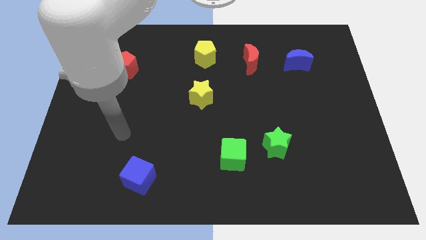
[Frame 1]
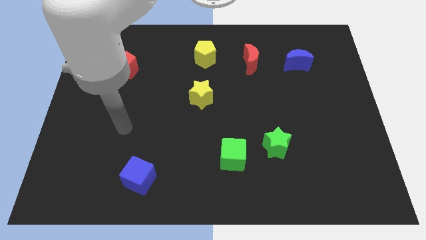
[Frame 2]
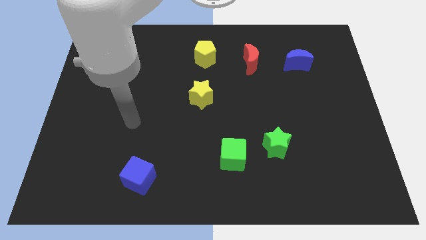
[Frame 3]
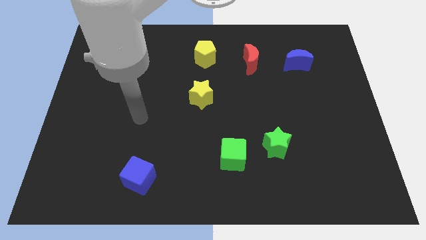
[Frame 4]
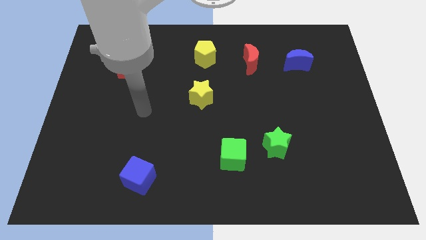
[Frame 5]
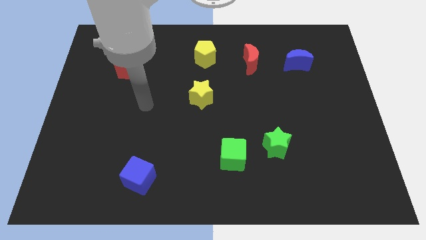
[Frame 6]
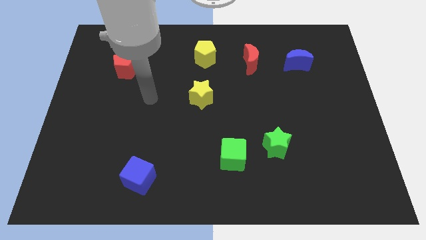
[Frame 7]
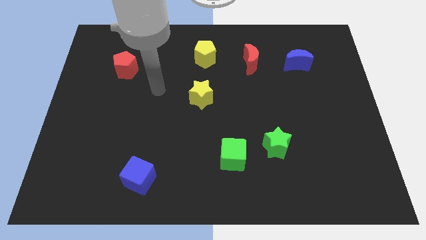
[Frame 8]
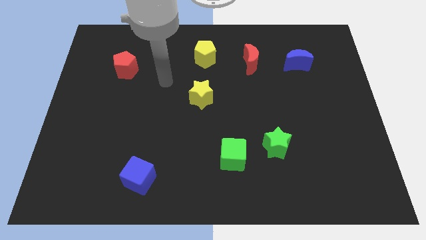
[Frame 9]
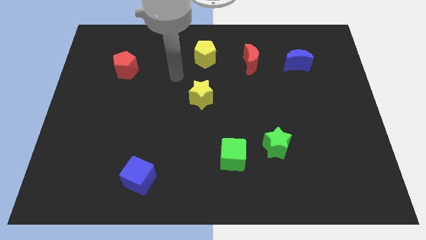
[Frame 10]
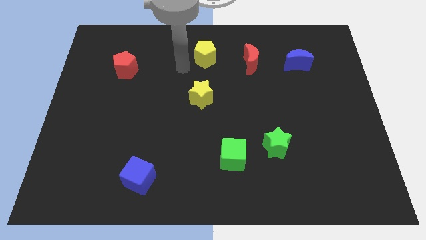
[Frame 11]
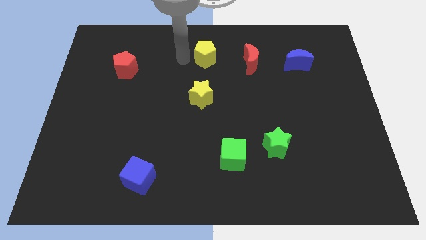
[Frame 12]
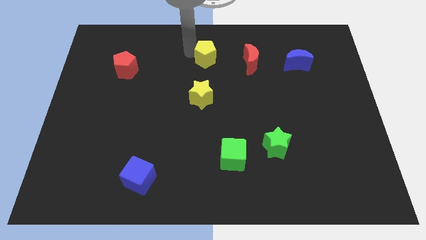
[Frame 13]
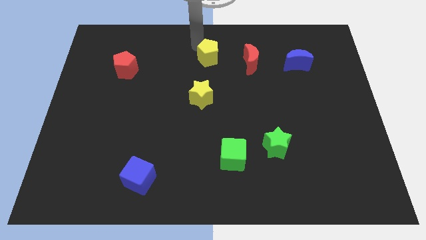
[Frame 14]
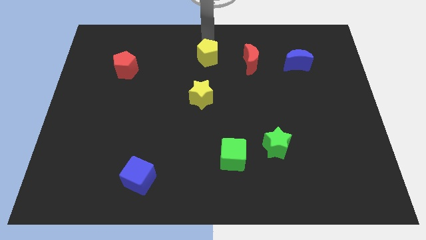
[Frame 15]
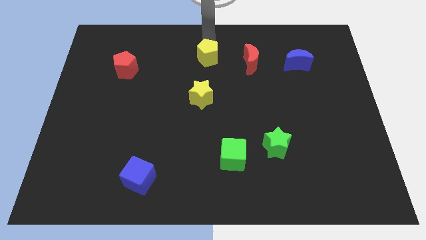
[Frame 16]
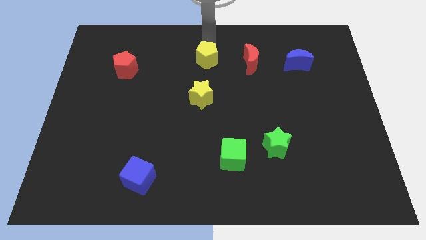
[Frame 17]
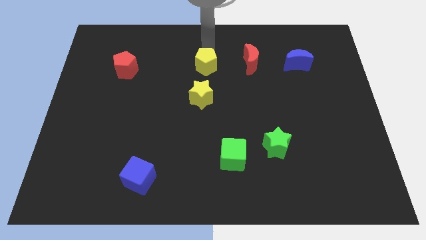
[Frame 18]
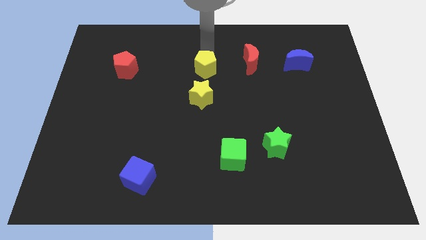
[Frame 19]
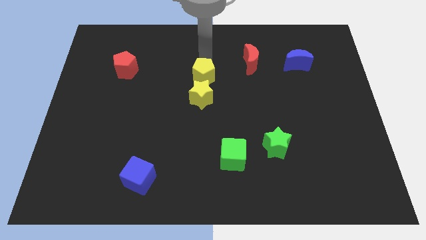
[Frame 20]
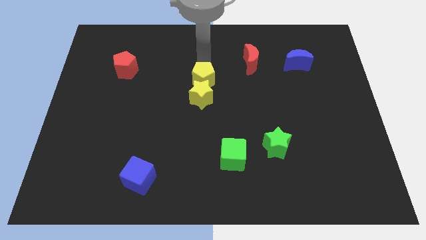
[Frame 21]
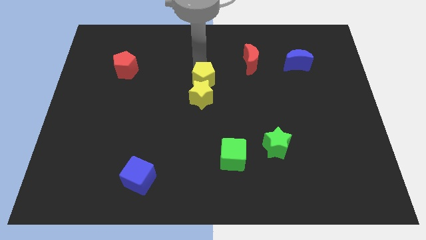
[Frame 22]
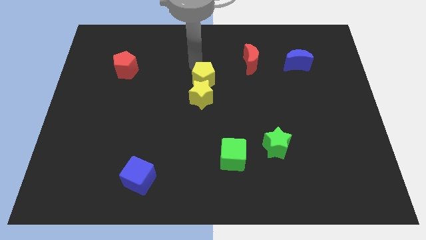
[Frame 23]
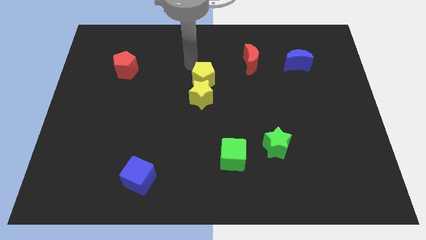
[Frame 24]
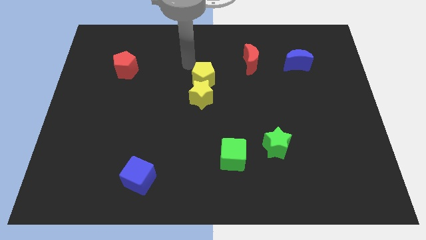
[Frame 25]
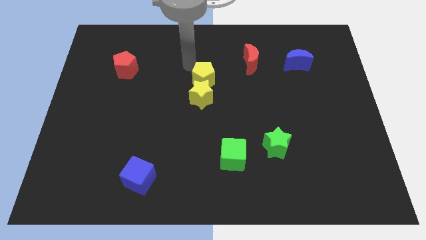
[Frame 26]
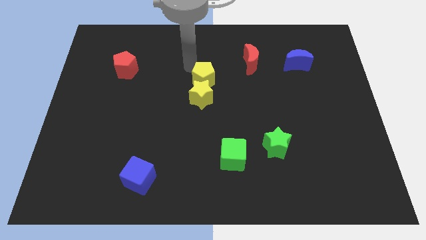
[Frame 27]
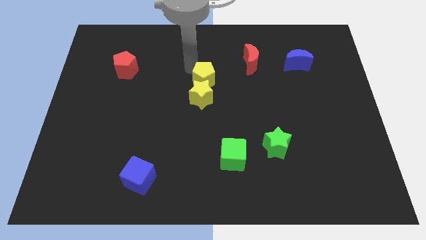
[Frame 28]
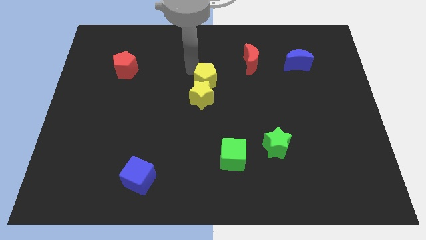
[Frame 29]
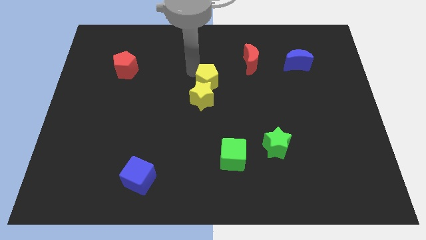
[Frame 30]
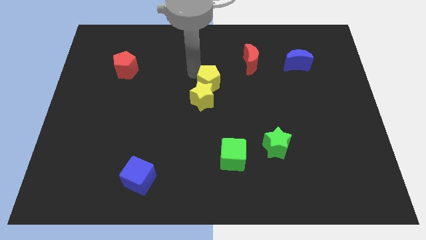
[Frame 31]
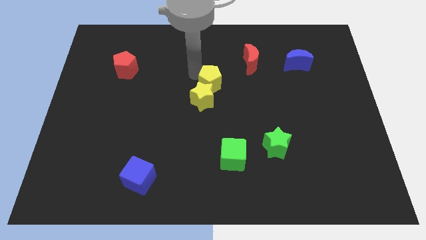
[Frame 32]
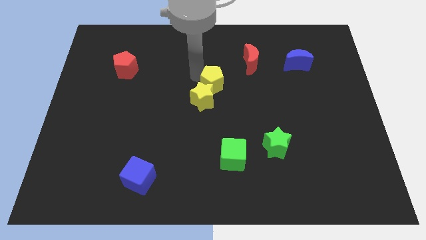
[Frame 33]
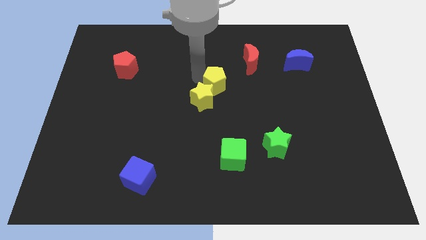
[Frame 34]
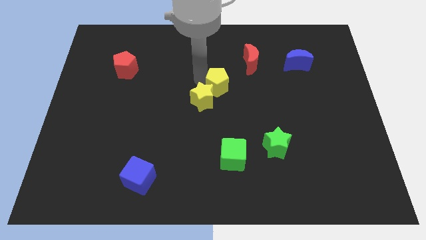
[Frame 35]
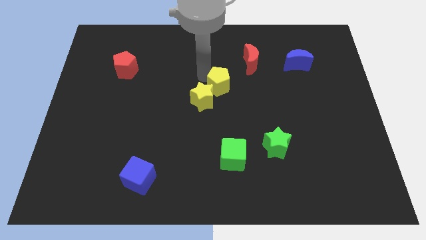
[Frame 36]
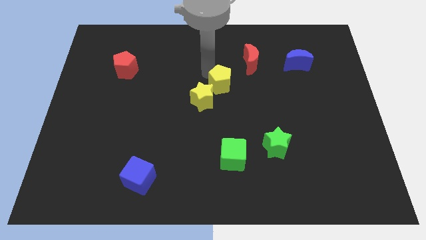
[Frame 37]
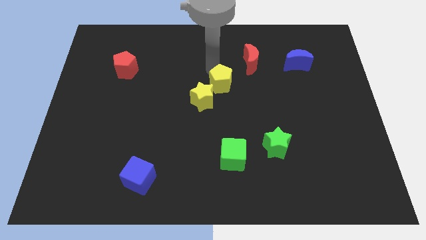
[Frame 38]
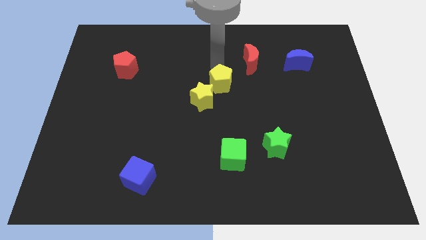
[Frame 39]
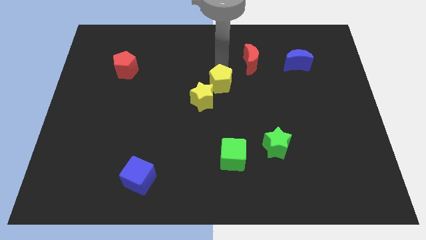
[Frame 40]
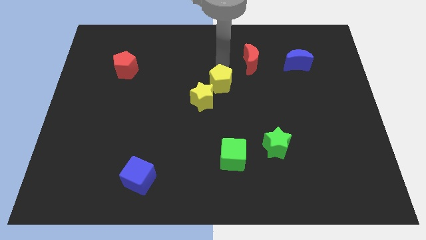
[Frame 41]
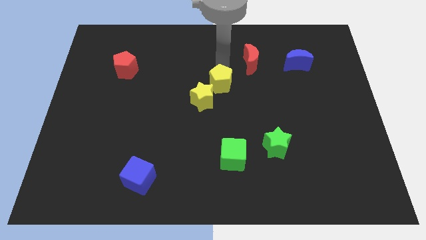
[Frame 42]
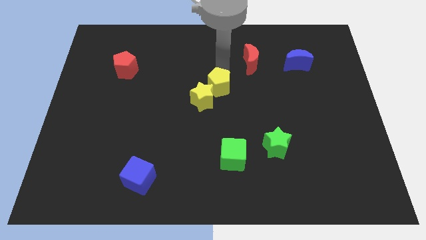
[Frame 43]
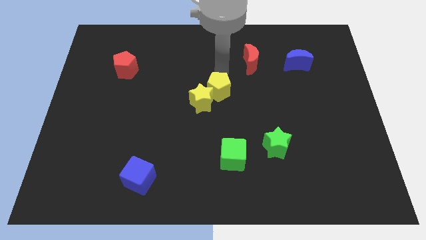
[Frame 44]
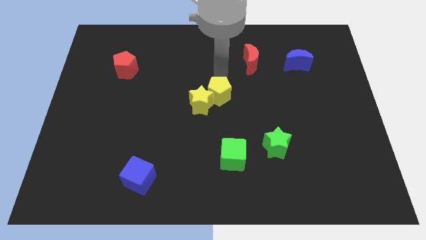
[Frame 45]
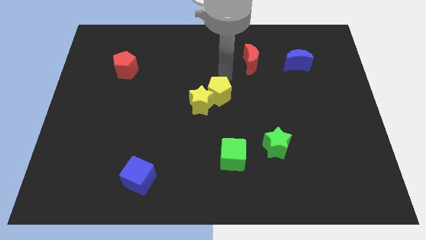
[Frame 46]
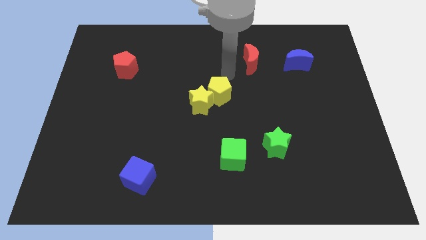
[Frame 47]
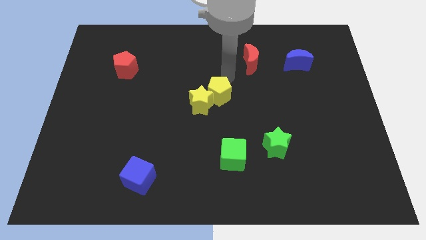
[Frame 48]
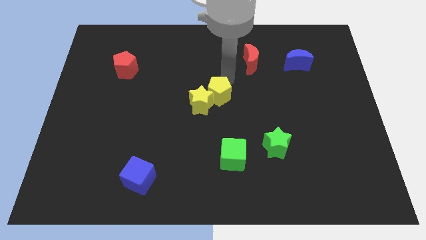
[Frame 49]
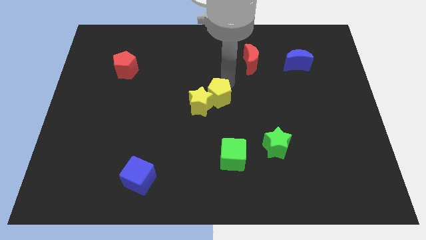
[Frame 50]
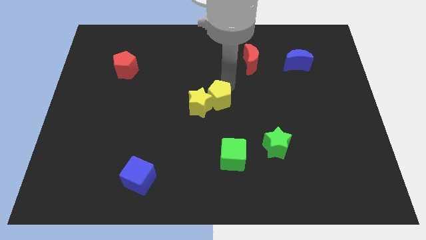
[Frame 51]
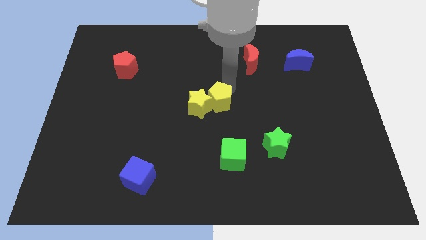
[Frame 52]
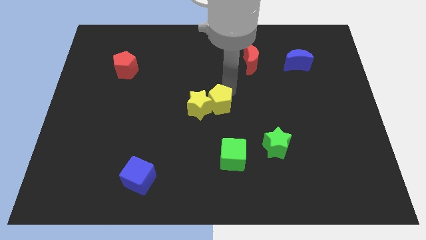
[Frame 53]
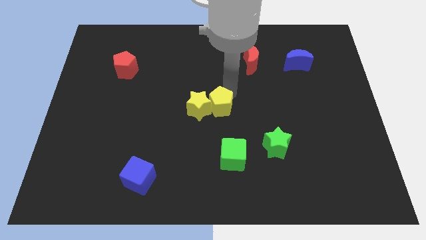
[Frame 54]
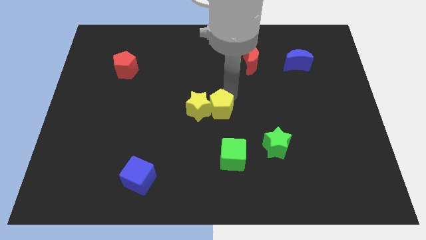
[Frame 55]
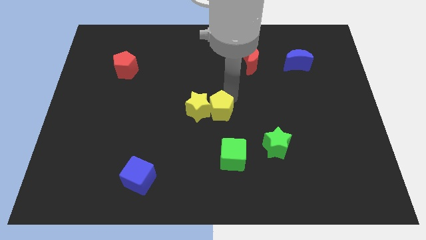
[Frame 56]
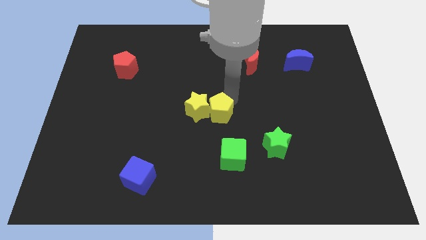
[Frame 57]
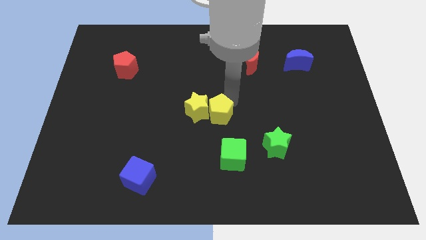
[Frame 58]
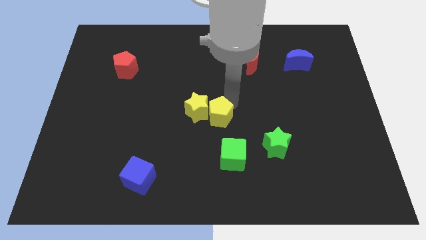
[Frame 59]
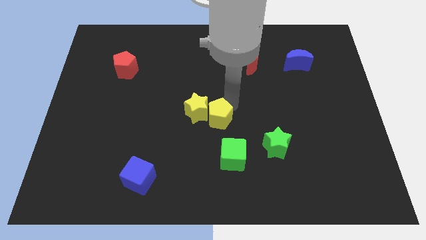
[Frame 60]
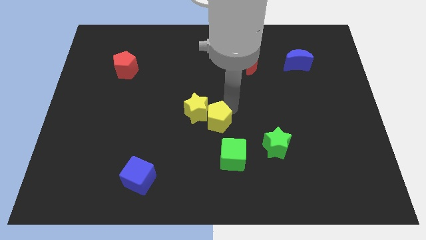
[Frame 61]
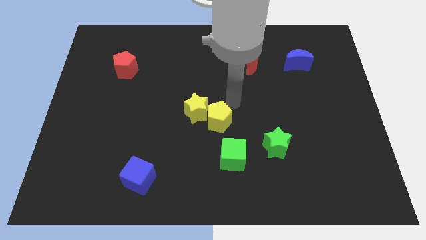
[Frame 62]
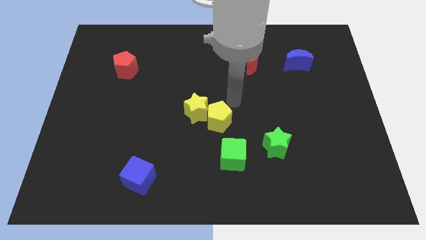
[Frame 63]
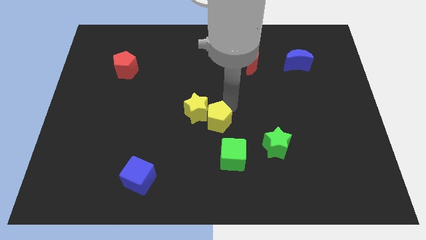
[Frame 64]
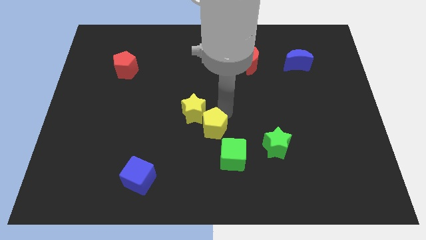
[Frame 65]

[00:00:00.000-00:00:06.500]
move the yellow pentagon to the bottom of the yellow star

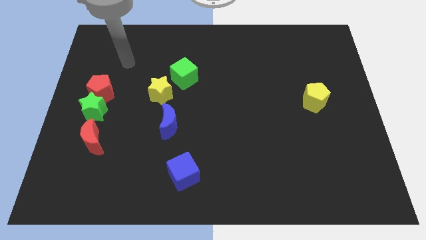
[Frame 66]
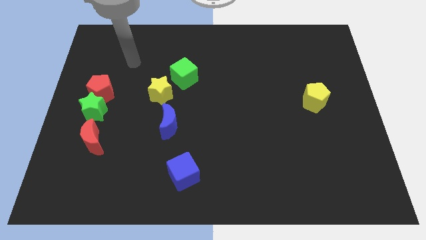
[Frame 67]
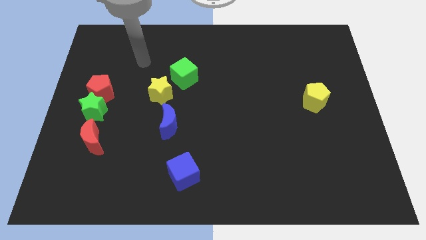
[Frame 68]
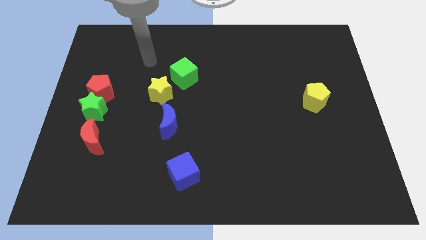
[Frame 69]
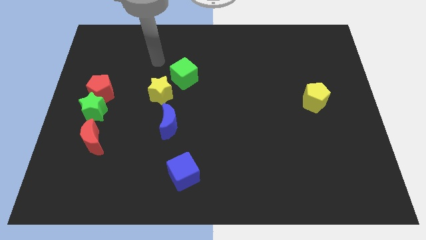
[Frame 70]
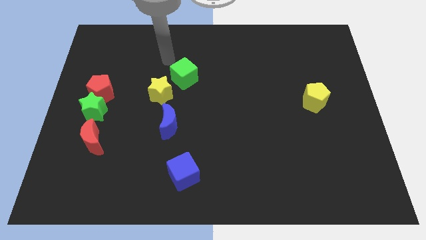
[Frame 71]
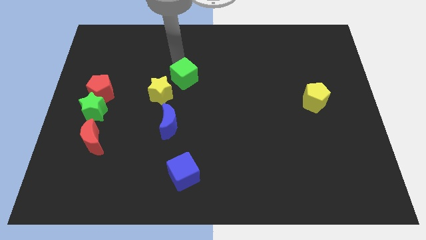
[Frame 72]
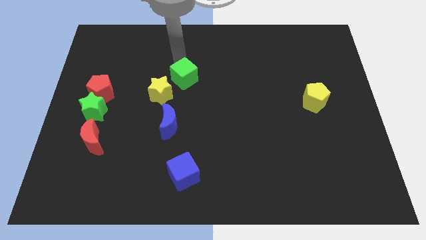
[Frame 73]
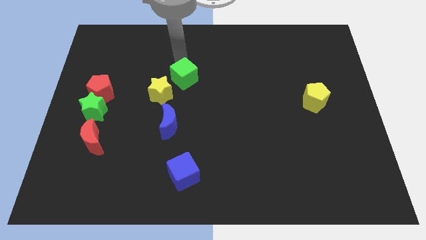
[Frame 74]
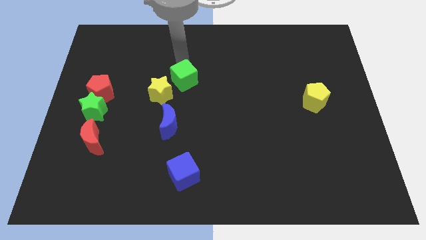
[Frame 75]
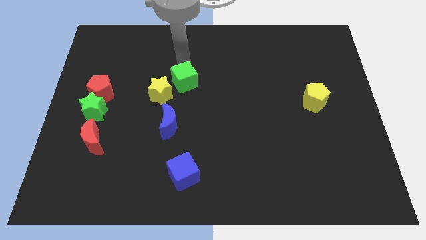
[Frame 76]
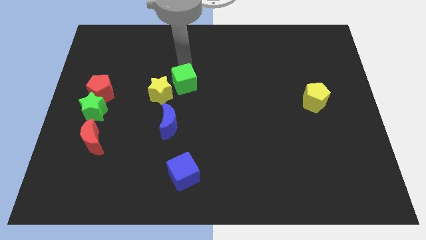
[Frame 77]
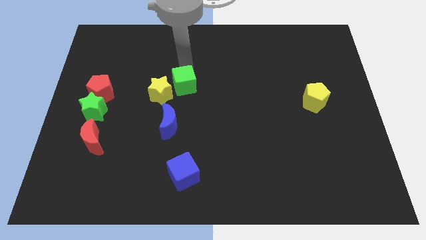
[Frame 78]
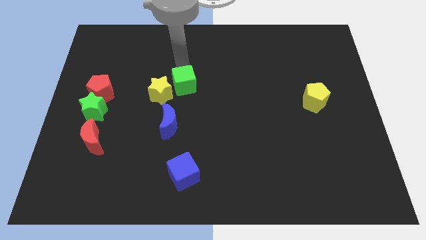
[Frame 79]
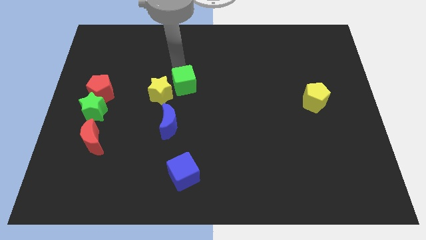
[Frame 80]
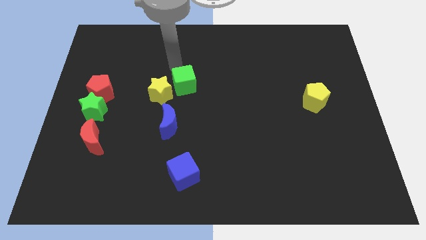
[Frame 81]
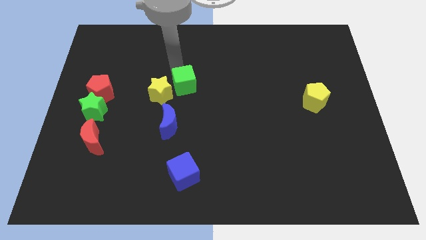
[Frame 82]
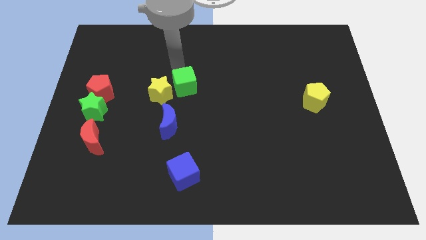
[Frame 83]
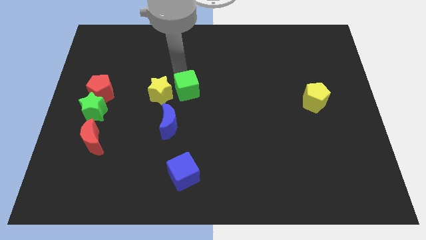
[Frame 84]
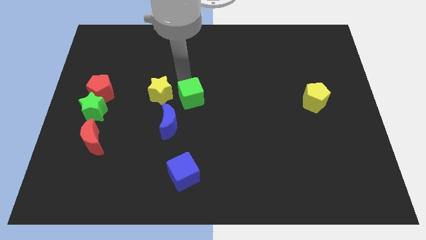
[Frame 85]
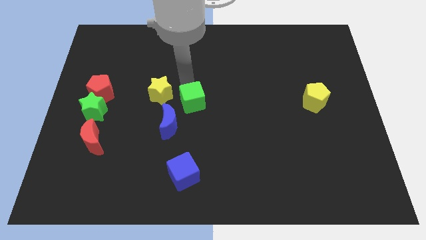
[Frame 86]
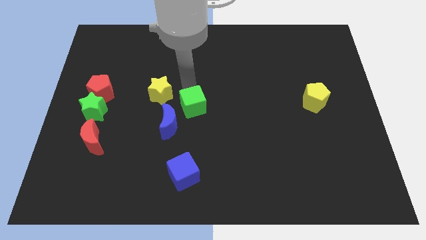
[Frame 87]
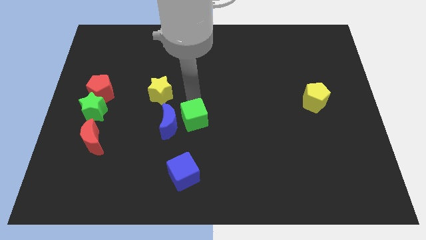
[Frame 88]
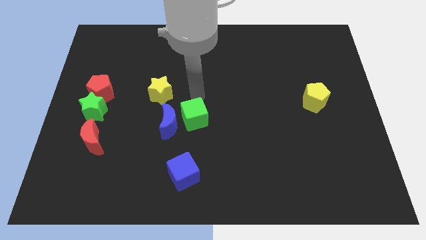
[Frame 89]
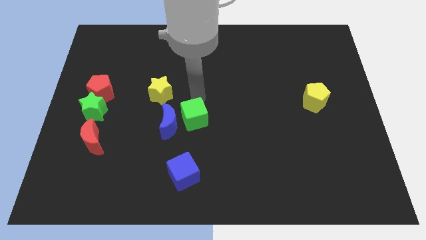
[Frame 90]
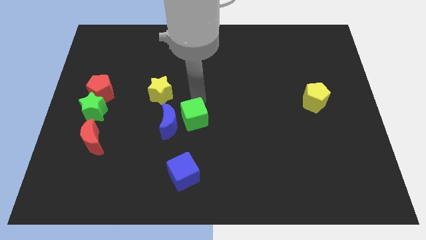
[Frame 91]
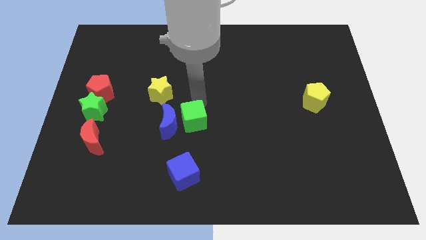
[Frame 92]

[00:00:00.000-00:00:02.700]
push the green cube to the bottom right of the blue moon
